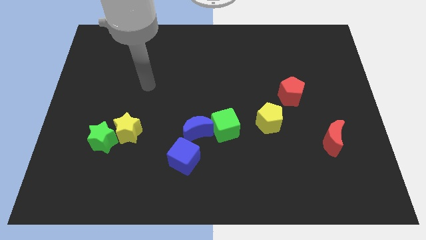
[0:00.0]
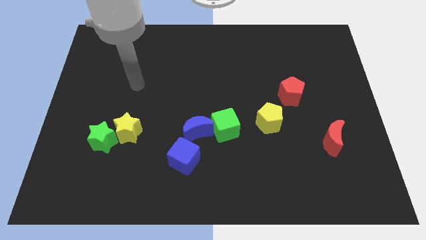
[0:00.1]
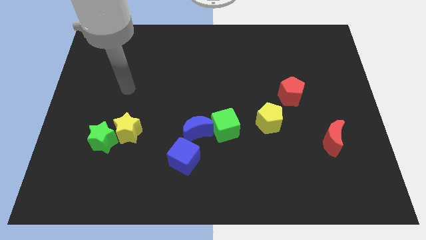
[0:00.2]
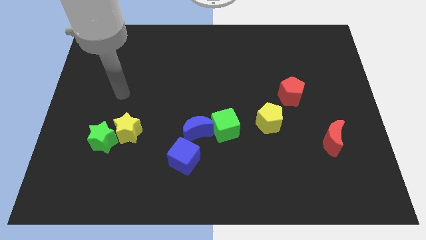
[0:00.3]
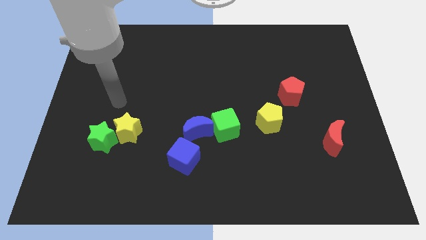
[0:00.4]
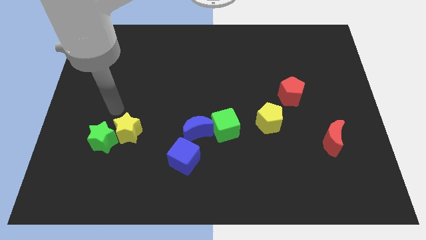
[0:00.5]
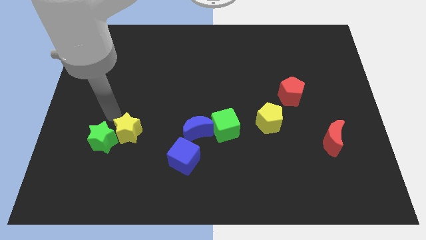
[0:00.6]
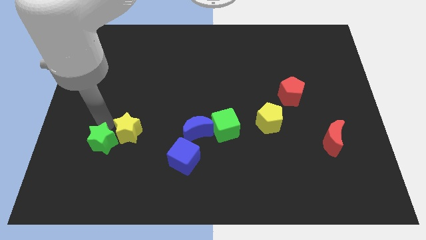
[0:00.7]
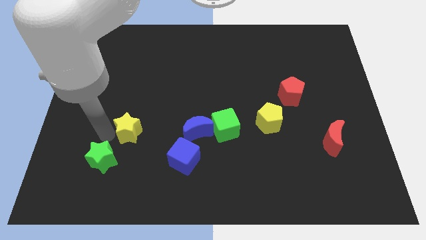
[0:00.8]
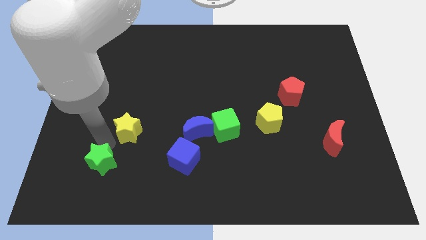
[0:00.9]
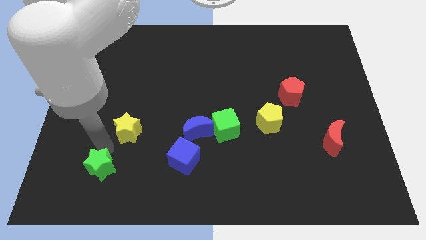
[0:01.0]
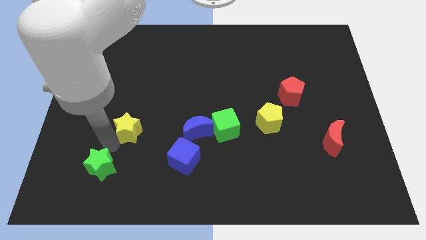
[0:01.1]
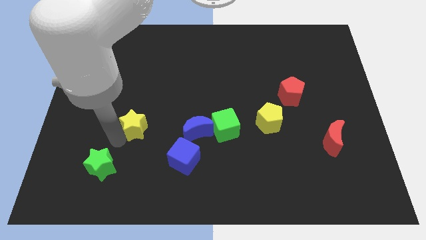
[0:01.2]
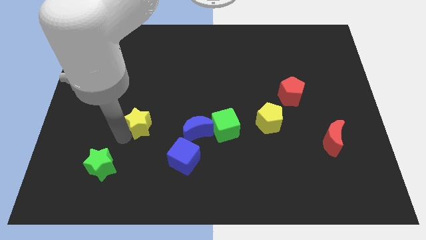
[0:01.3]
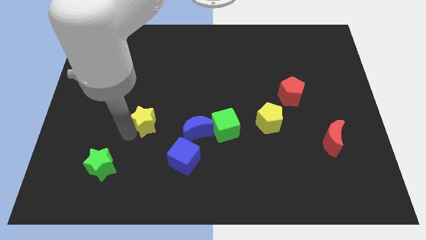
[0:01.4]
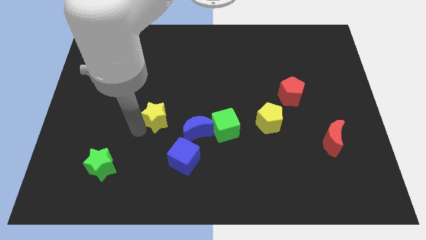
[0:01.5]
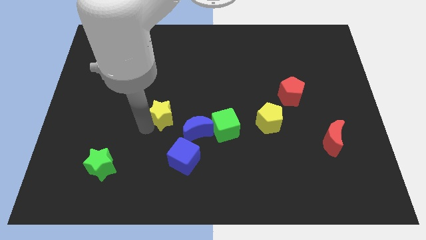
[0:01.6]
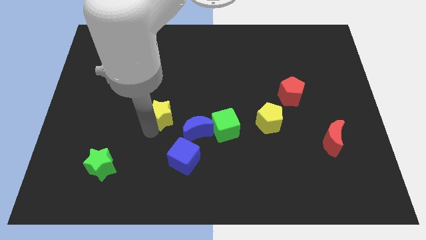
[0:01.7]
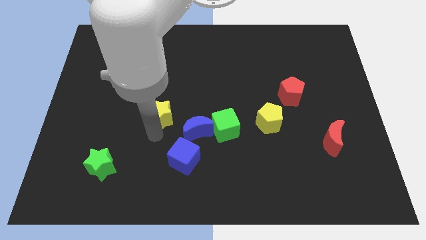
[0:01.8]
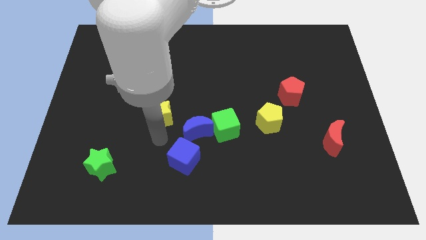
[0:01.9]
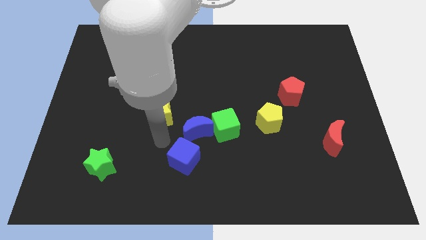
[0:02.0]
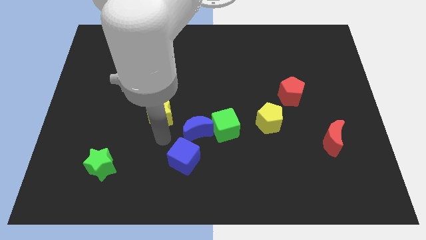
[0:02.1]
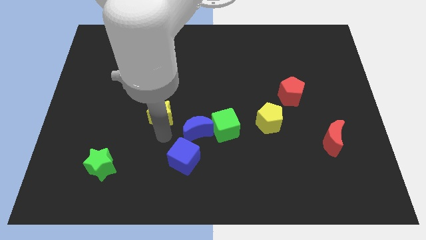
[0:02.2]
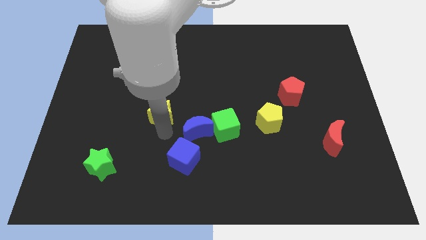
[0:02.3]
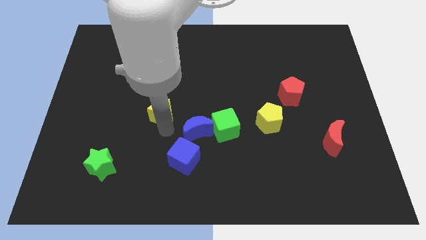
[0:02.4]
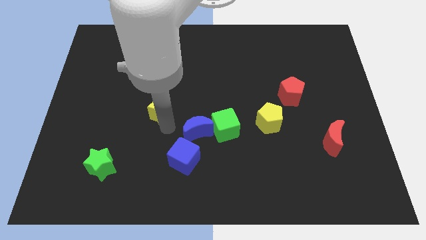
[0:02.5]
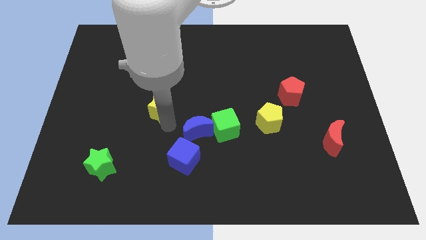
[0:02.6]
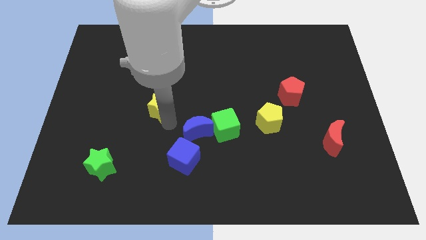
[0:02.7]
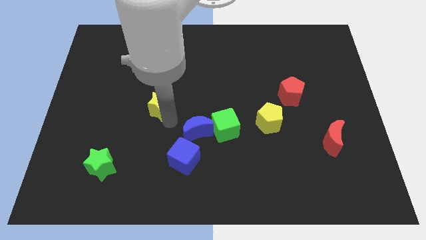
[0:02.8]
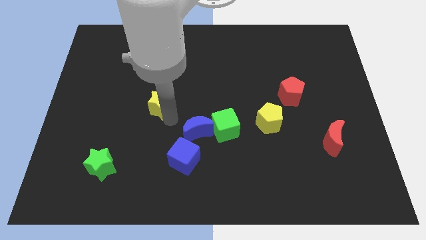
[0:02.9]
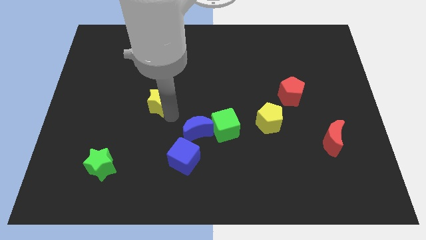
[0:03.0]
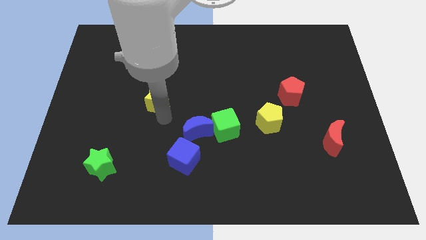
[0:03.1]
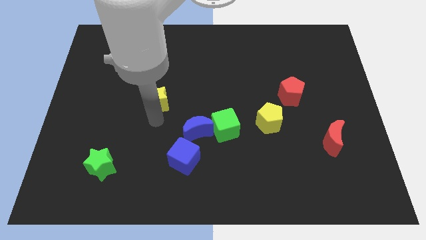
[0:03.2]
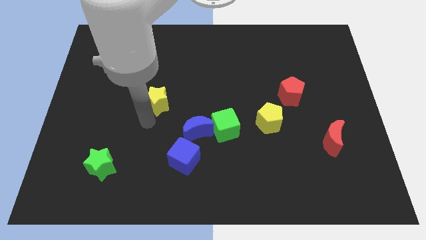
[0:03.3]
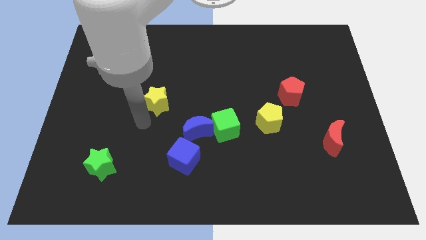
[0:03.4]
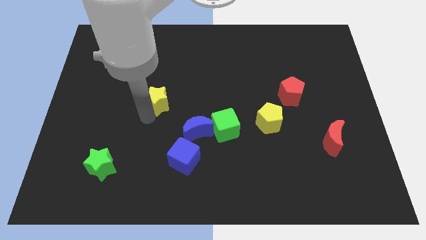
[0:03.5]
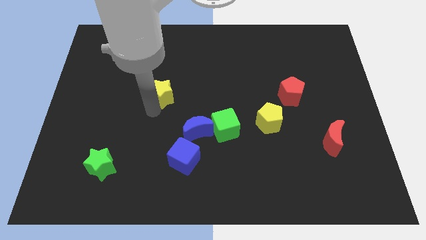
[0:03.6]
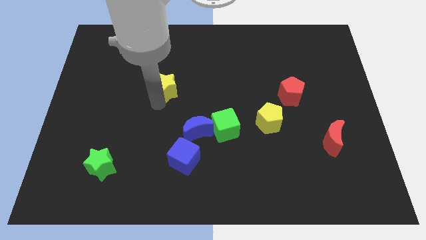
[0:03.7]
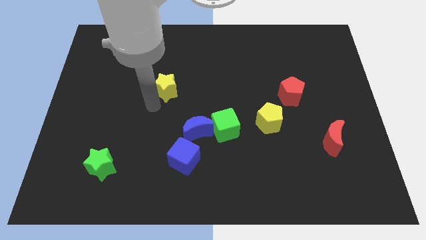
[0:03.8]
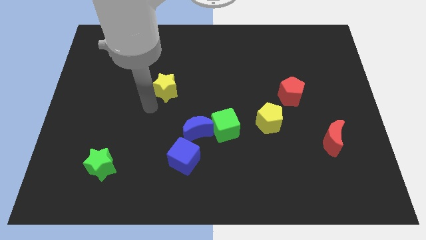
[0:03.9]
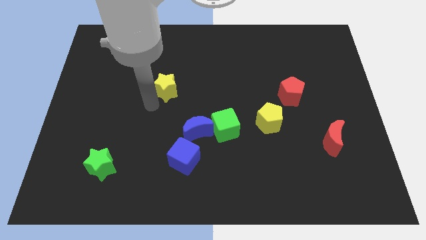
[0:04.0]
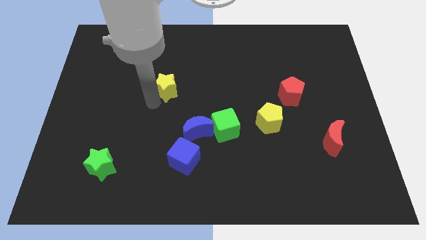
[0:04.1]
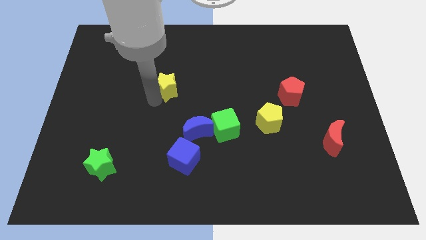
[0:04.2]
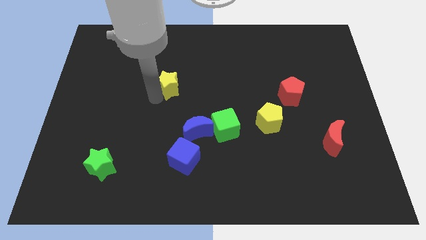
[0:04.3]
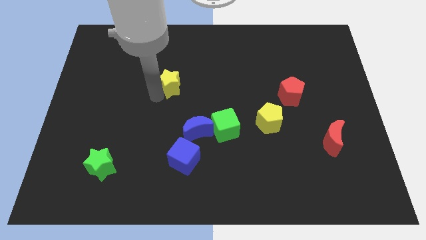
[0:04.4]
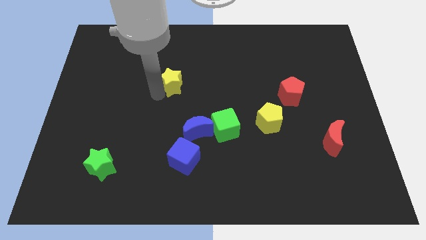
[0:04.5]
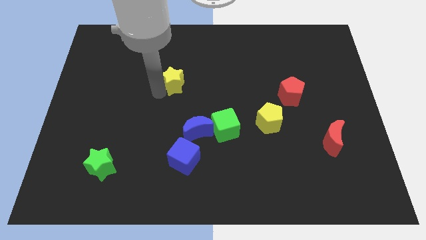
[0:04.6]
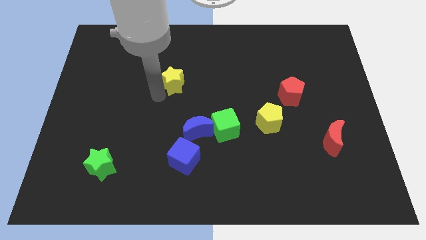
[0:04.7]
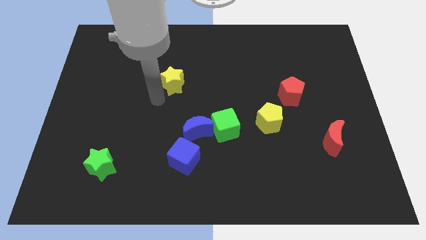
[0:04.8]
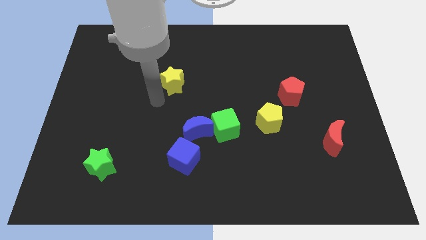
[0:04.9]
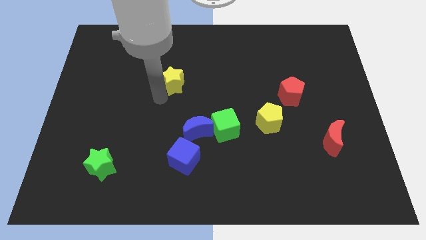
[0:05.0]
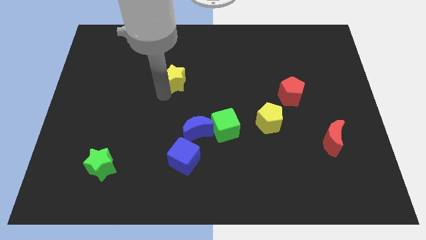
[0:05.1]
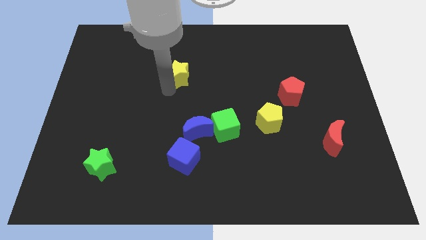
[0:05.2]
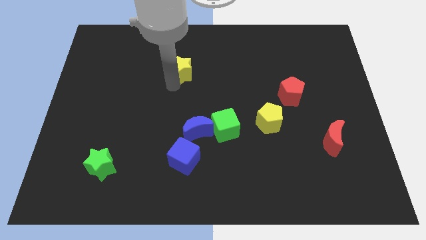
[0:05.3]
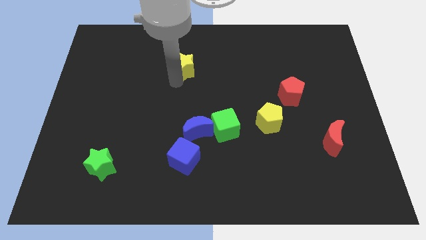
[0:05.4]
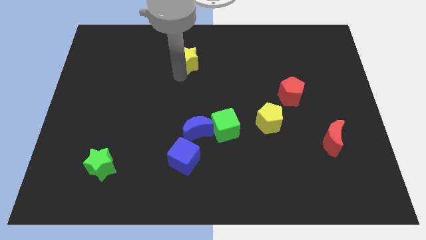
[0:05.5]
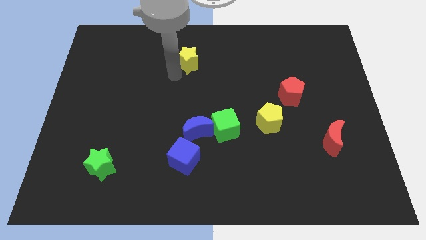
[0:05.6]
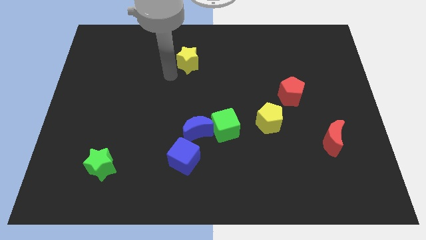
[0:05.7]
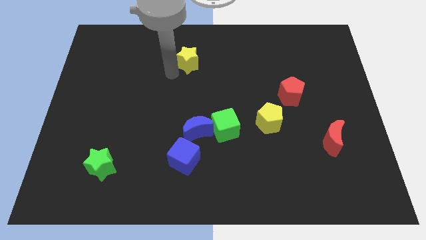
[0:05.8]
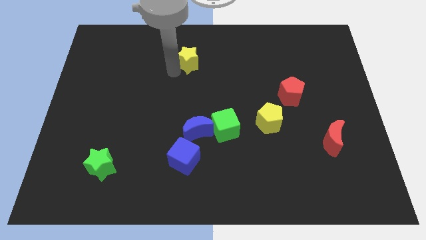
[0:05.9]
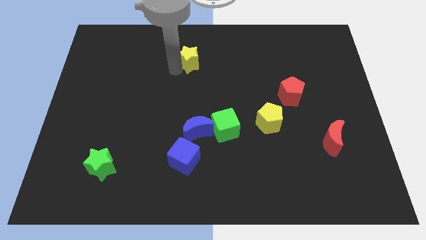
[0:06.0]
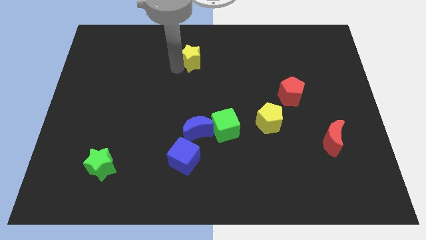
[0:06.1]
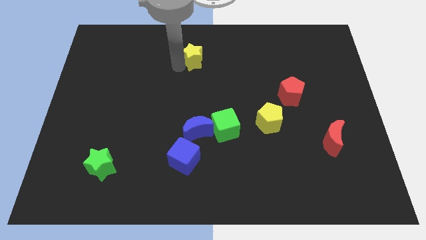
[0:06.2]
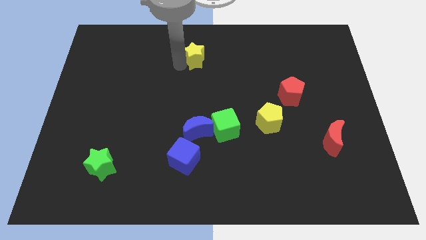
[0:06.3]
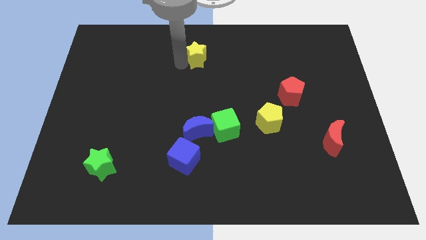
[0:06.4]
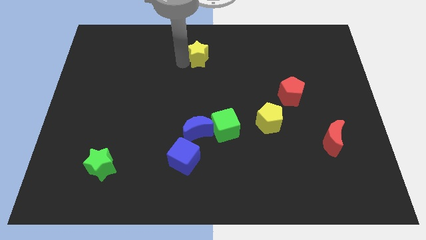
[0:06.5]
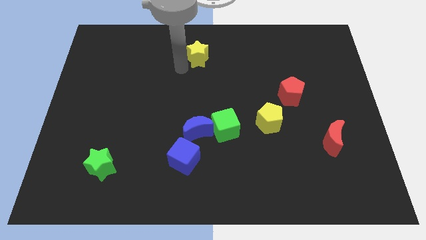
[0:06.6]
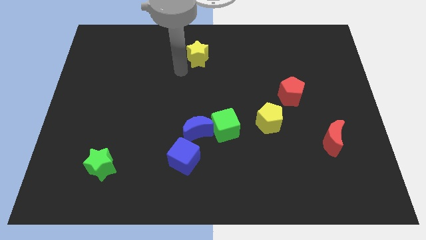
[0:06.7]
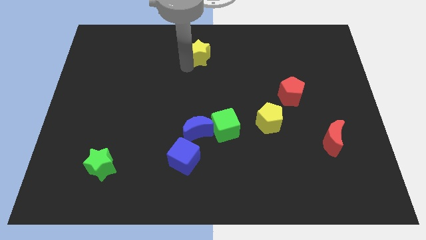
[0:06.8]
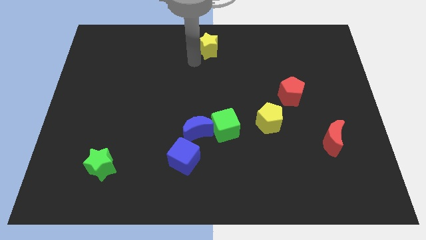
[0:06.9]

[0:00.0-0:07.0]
put the yellow star to the towards your base

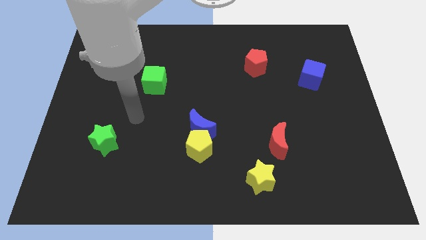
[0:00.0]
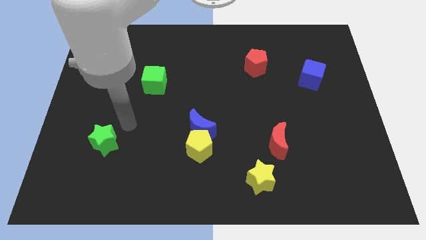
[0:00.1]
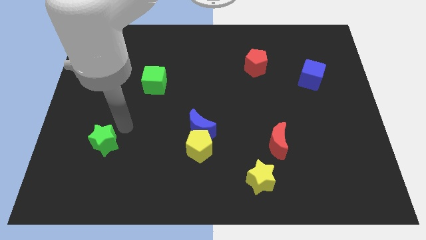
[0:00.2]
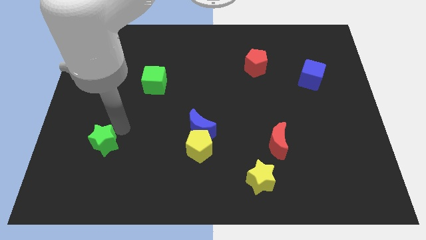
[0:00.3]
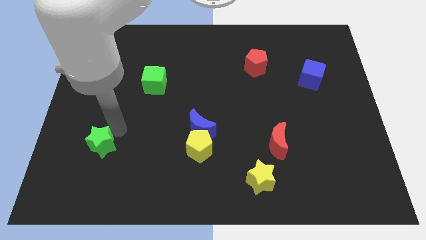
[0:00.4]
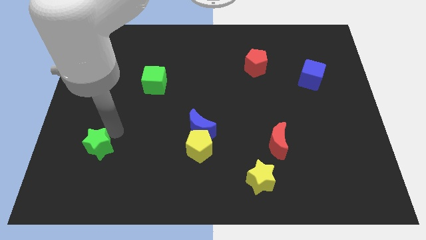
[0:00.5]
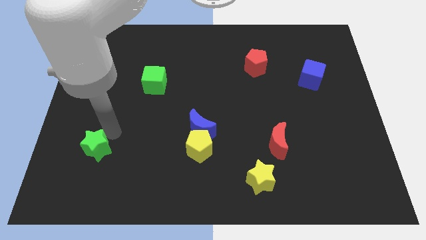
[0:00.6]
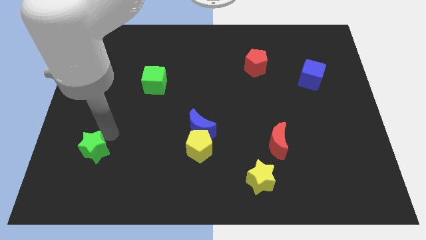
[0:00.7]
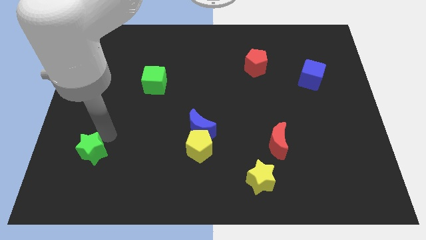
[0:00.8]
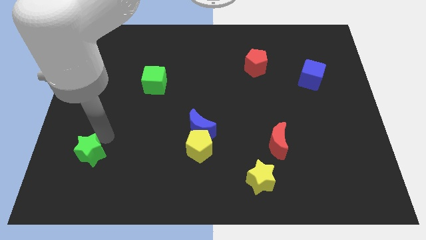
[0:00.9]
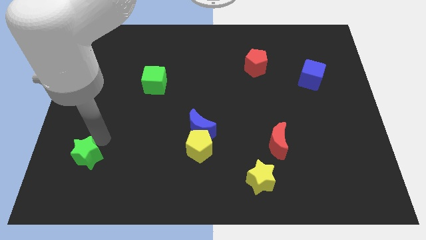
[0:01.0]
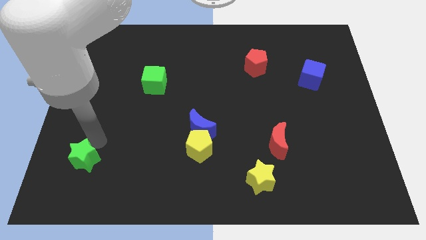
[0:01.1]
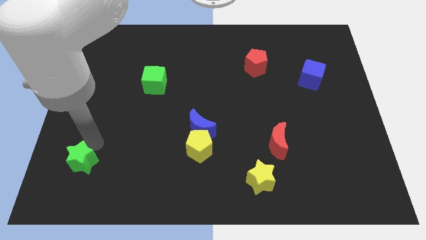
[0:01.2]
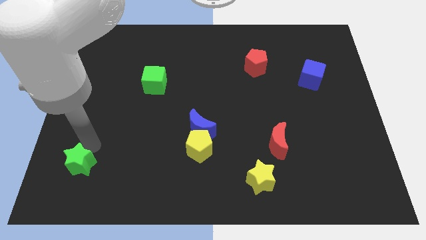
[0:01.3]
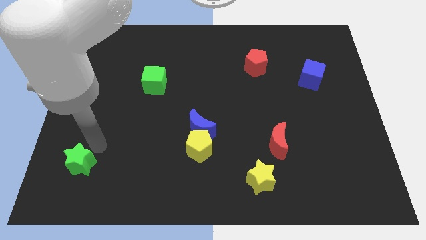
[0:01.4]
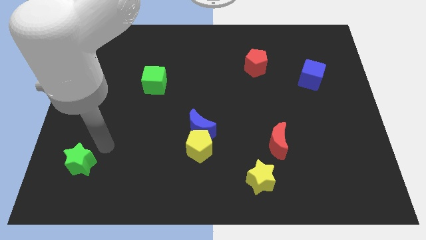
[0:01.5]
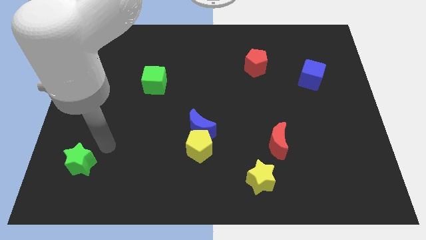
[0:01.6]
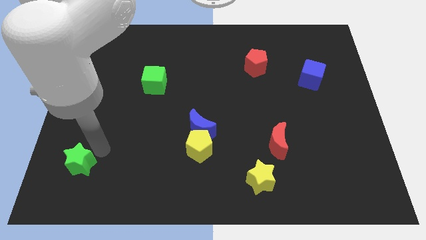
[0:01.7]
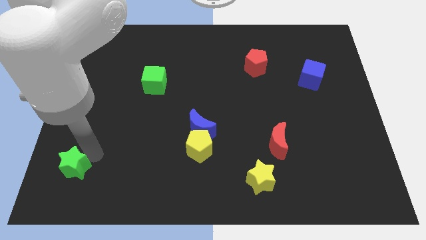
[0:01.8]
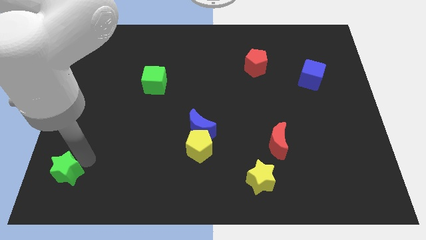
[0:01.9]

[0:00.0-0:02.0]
move the green star to the bottom left of the board
